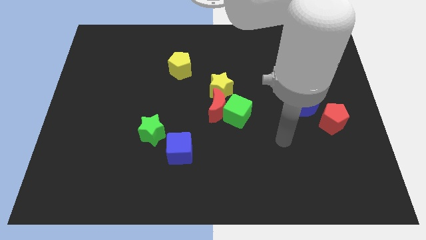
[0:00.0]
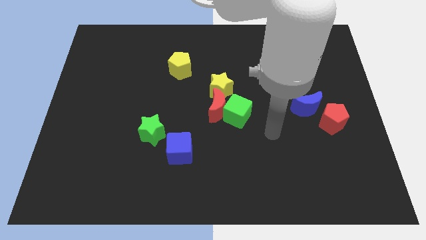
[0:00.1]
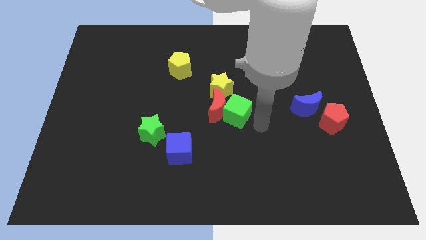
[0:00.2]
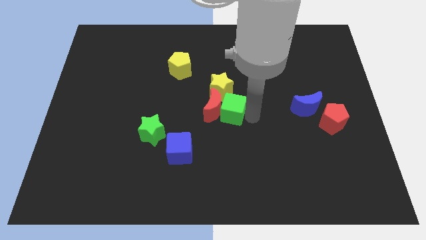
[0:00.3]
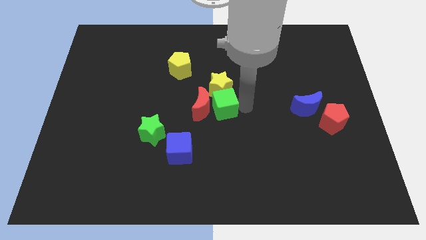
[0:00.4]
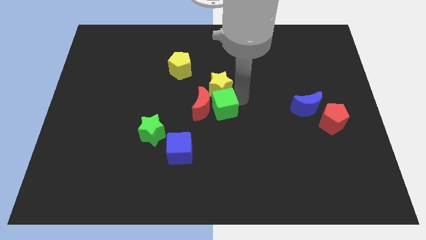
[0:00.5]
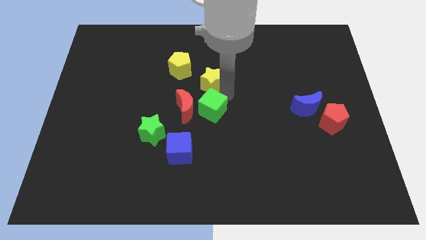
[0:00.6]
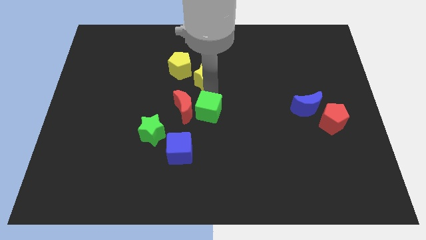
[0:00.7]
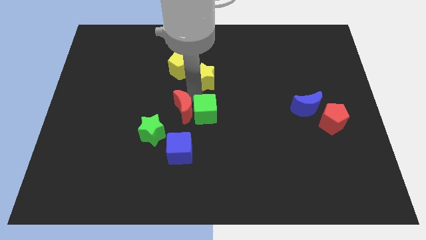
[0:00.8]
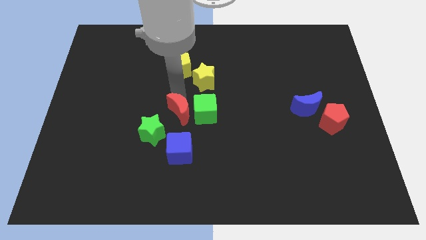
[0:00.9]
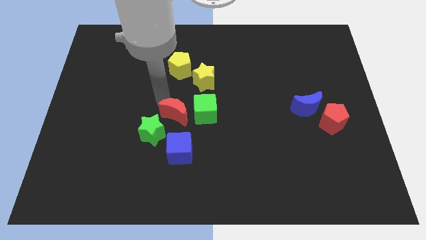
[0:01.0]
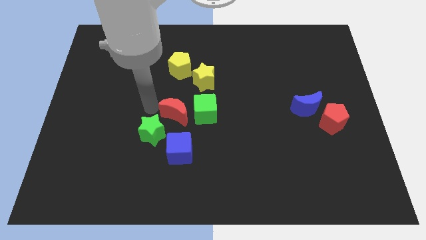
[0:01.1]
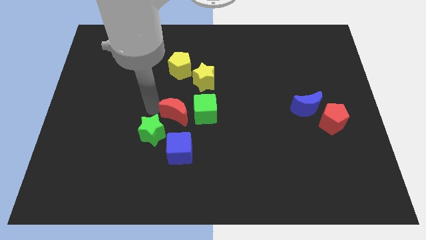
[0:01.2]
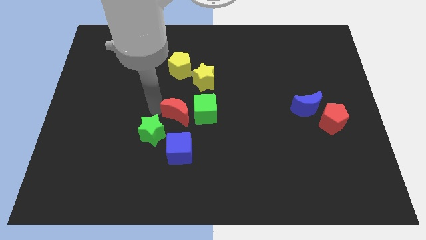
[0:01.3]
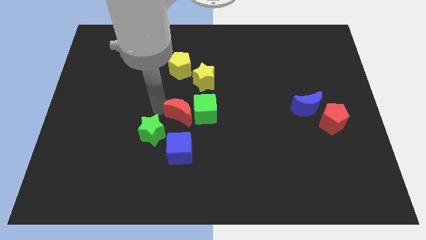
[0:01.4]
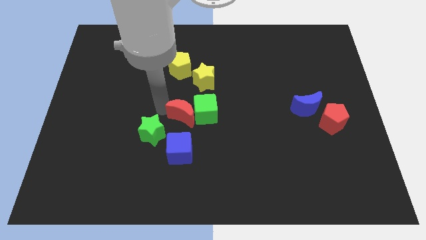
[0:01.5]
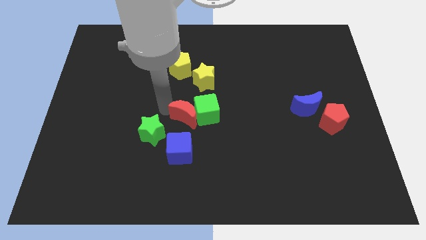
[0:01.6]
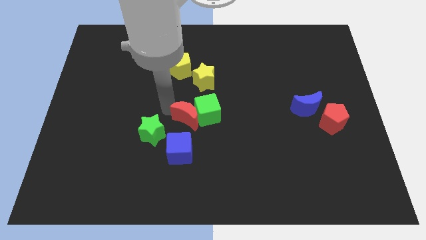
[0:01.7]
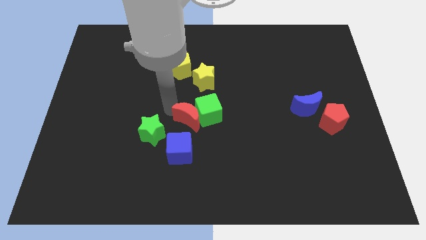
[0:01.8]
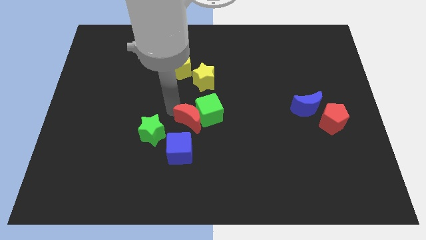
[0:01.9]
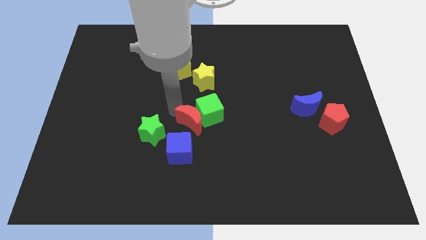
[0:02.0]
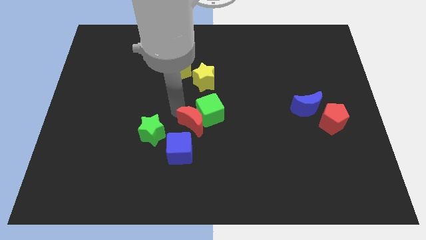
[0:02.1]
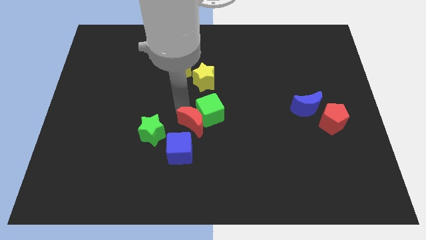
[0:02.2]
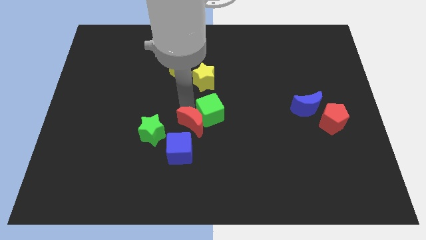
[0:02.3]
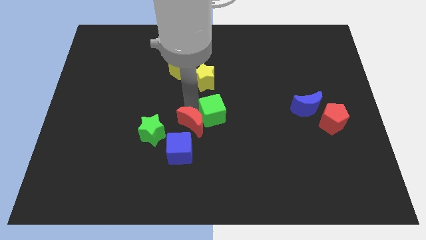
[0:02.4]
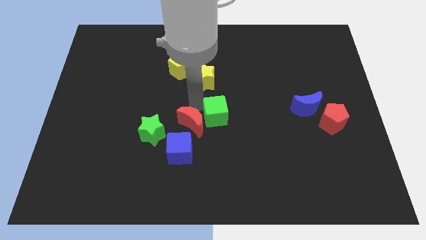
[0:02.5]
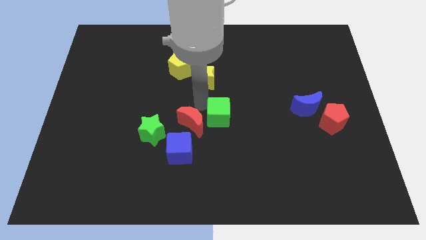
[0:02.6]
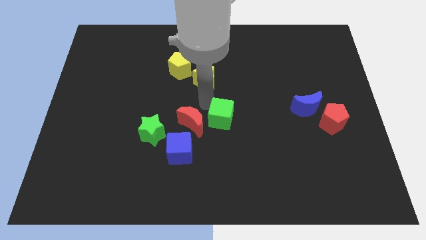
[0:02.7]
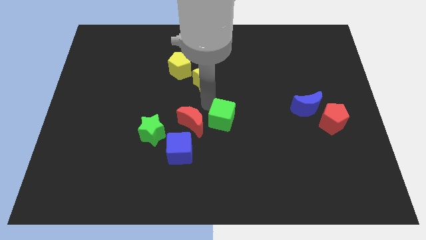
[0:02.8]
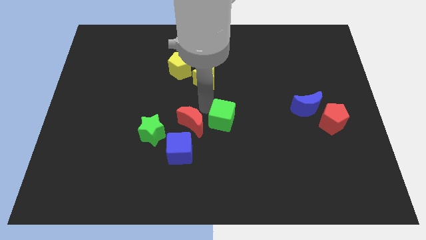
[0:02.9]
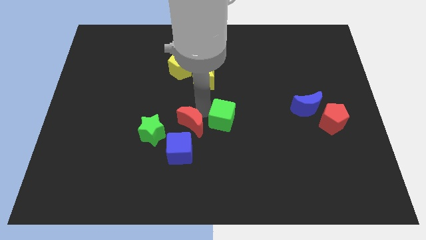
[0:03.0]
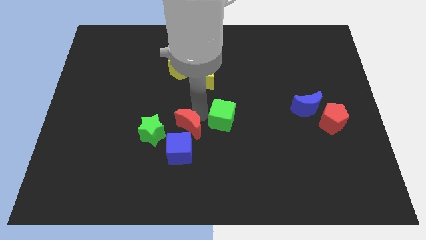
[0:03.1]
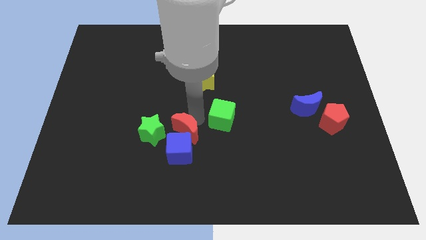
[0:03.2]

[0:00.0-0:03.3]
separate the red moon from the green cube and yellow star

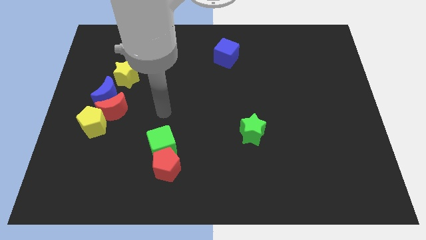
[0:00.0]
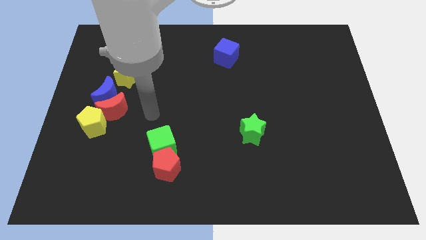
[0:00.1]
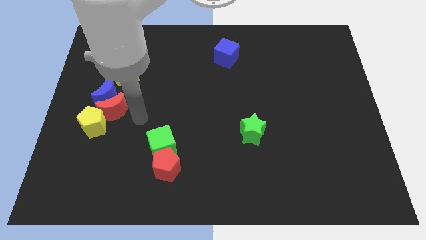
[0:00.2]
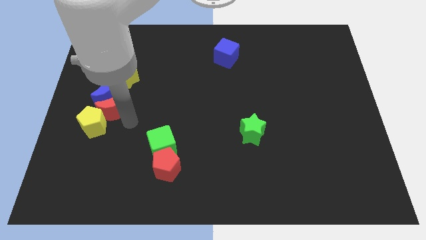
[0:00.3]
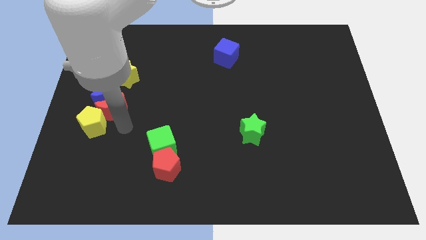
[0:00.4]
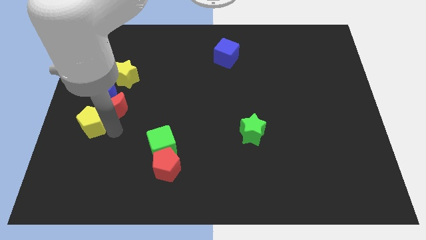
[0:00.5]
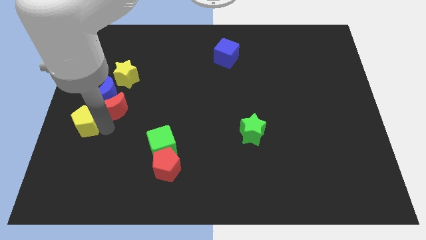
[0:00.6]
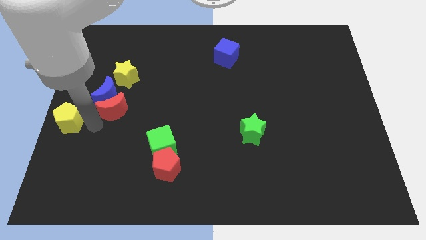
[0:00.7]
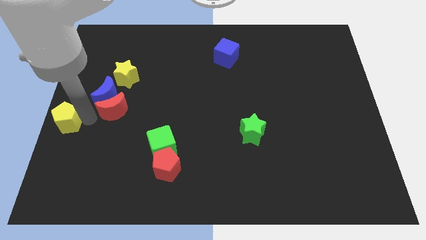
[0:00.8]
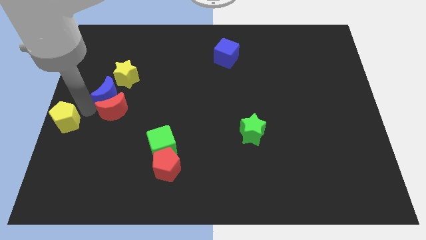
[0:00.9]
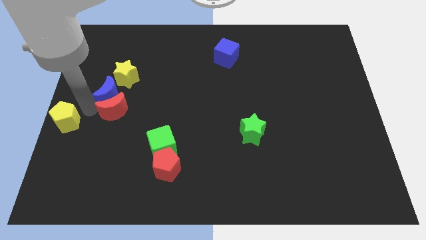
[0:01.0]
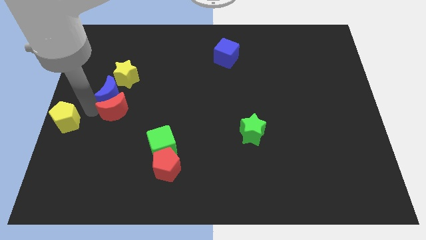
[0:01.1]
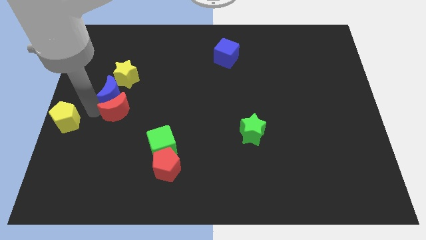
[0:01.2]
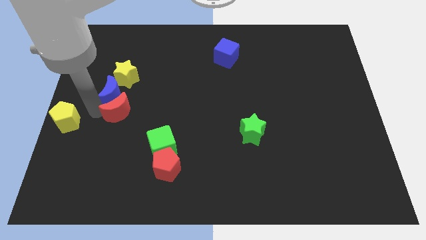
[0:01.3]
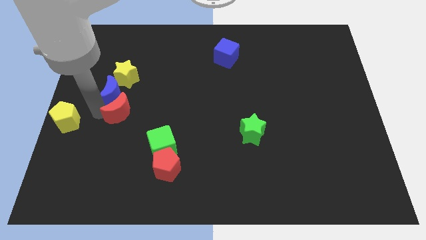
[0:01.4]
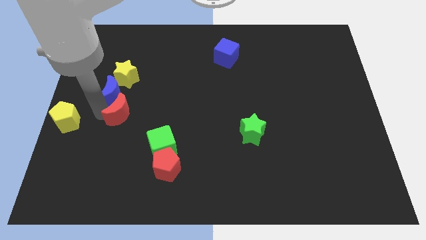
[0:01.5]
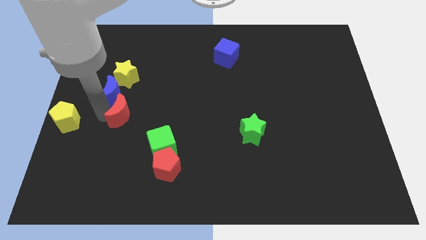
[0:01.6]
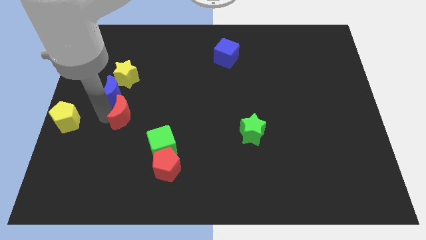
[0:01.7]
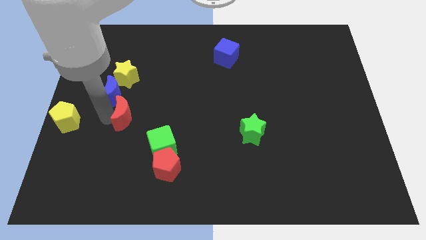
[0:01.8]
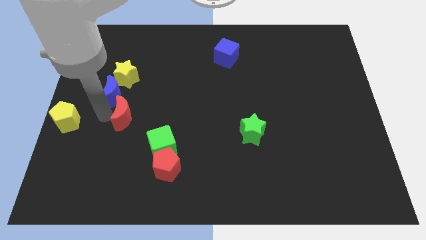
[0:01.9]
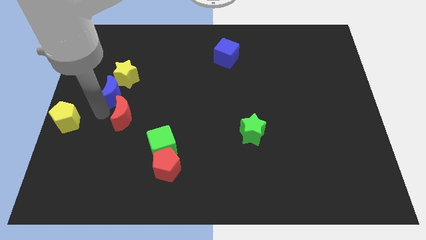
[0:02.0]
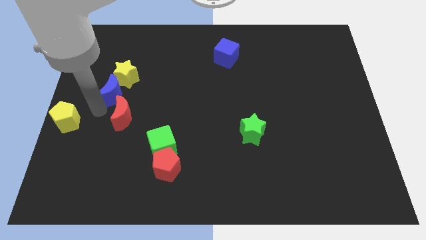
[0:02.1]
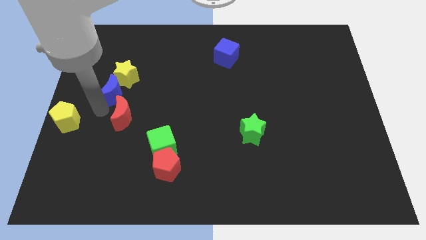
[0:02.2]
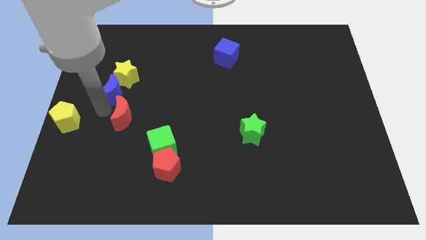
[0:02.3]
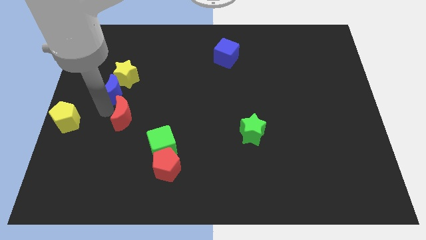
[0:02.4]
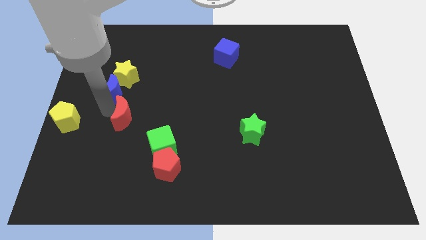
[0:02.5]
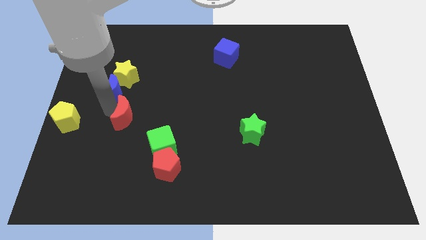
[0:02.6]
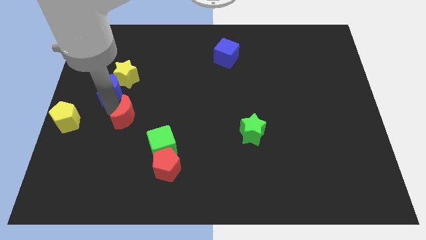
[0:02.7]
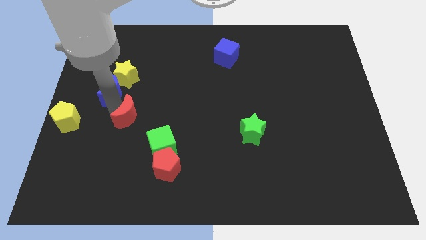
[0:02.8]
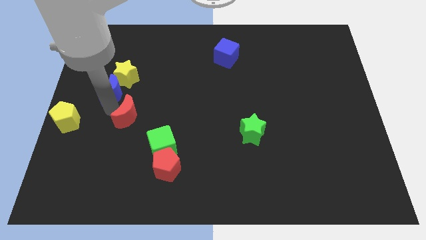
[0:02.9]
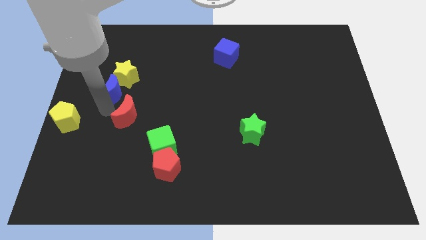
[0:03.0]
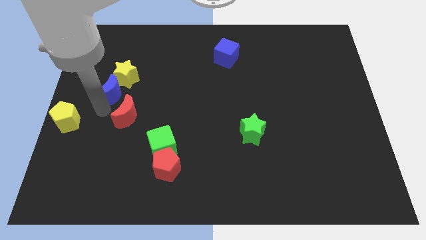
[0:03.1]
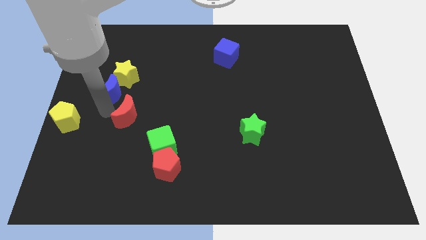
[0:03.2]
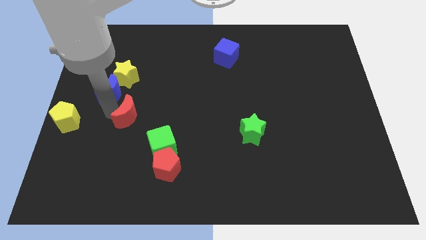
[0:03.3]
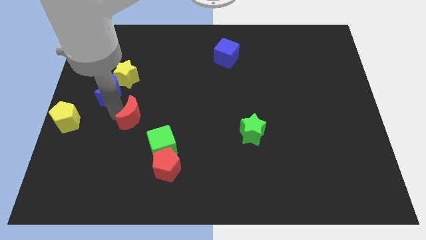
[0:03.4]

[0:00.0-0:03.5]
separate the red moon from the blue moon and yellow pentagon

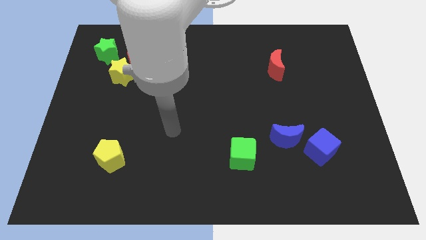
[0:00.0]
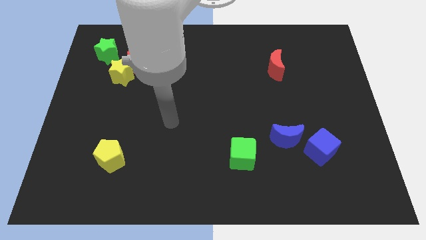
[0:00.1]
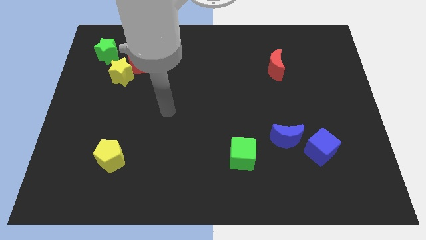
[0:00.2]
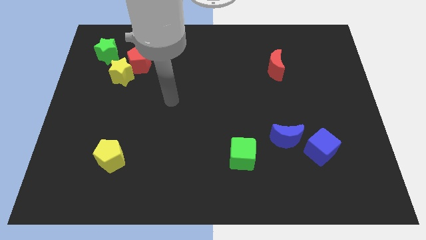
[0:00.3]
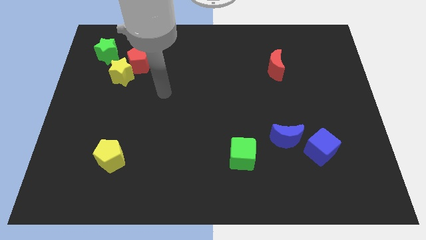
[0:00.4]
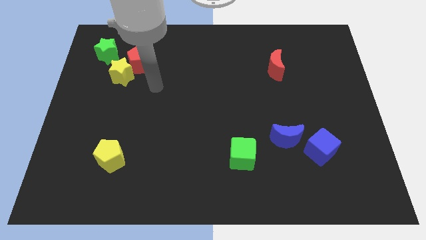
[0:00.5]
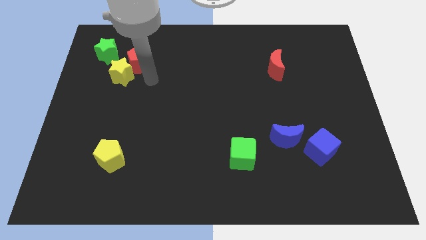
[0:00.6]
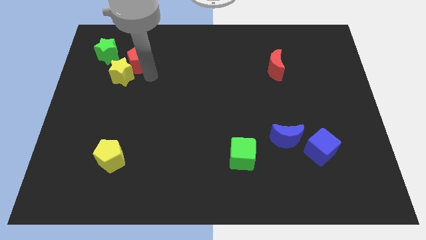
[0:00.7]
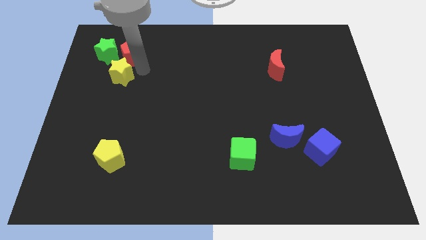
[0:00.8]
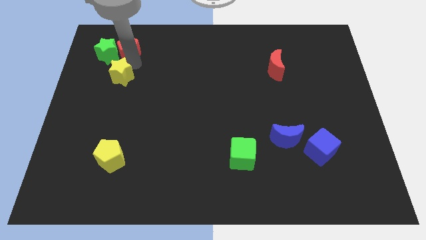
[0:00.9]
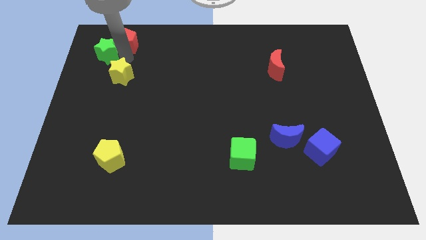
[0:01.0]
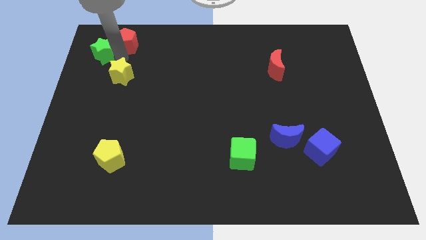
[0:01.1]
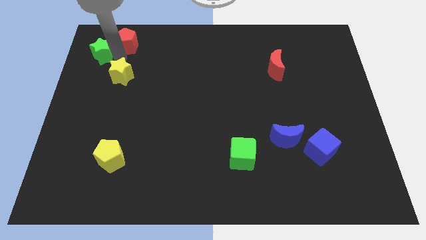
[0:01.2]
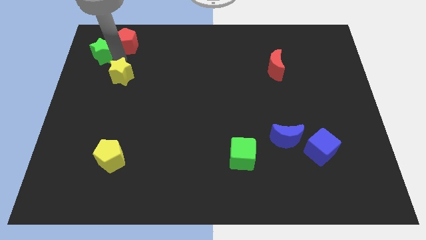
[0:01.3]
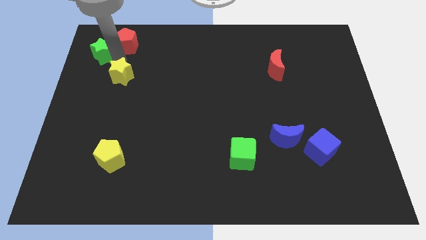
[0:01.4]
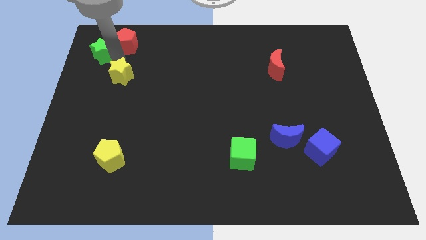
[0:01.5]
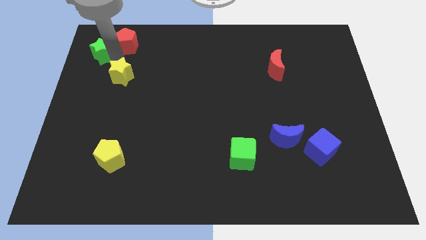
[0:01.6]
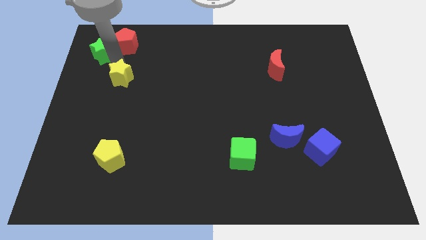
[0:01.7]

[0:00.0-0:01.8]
move the yellow star away from the red pentagon and green star

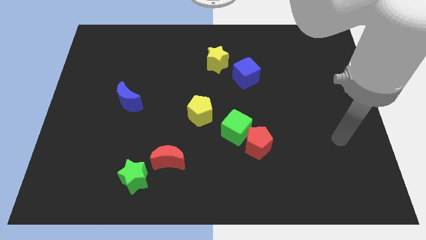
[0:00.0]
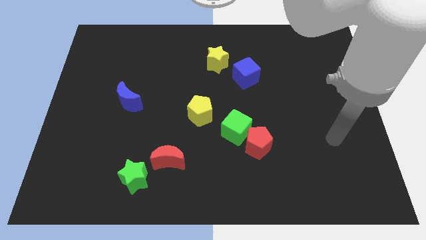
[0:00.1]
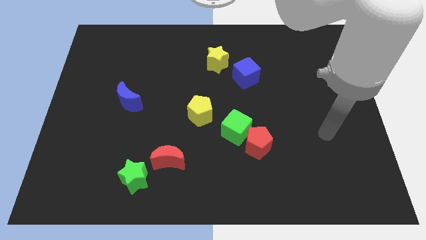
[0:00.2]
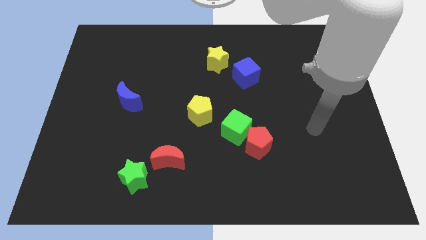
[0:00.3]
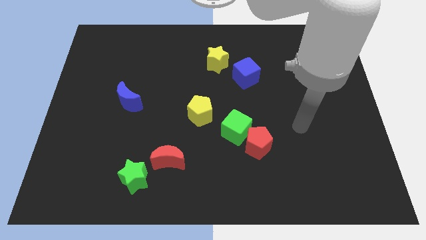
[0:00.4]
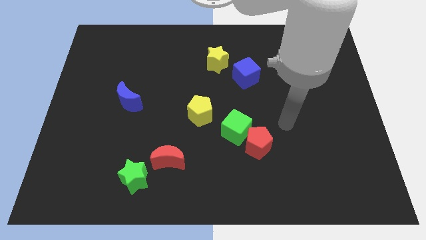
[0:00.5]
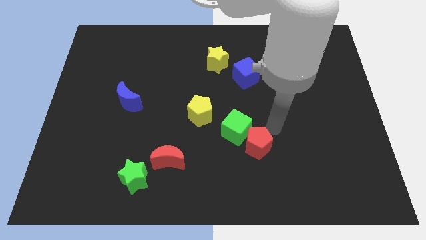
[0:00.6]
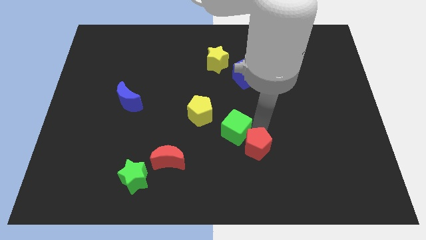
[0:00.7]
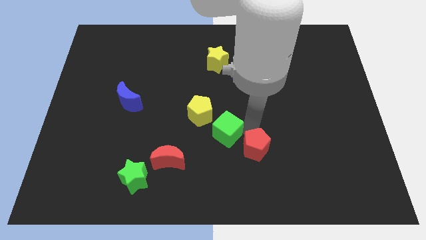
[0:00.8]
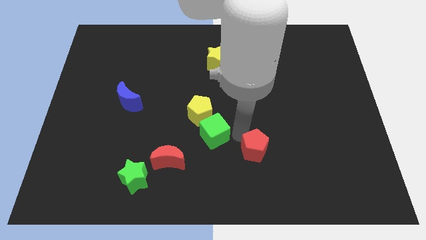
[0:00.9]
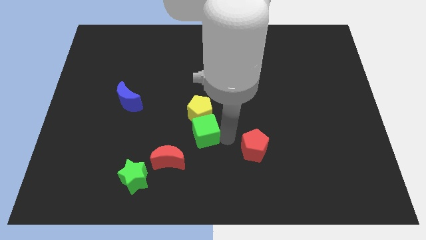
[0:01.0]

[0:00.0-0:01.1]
move the red pentagon away from the green cube
